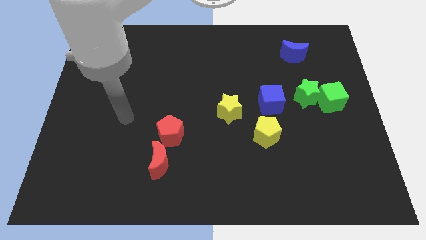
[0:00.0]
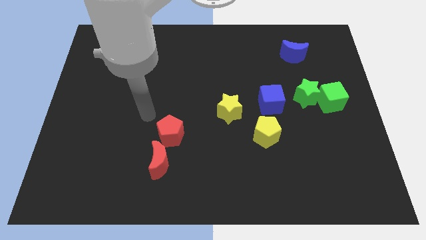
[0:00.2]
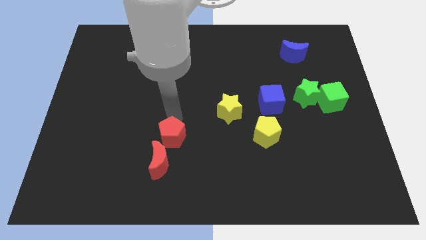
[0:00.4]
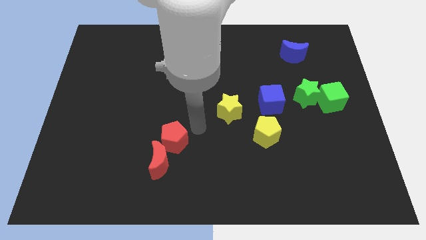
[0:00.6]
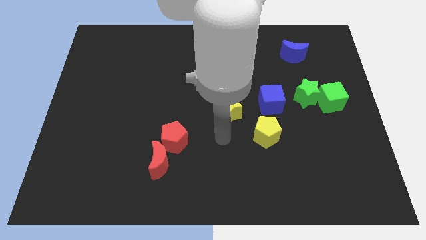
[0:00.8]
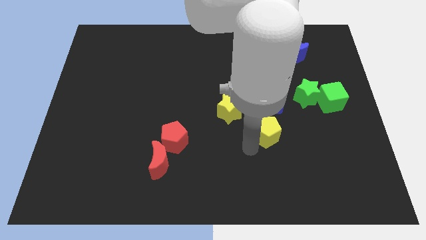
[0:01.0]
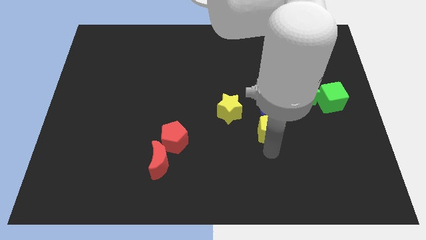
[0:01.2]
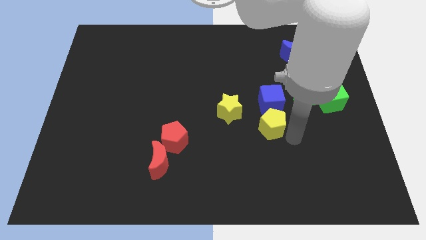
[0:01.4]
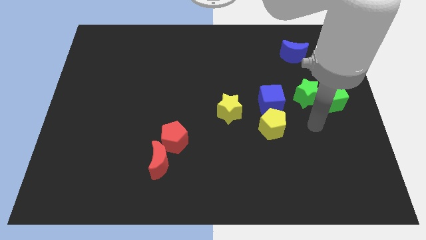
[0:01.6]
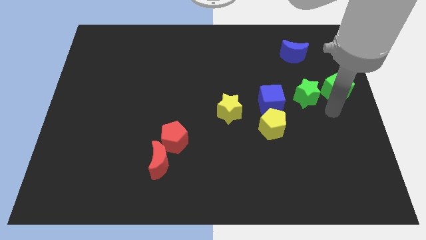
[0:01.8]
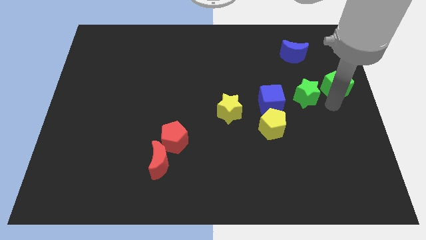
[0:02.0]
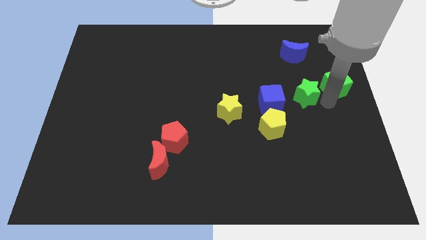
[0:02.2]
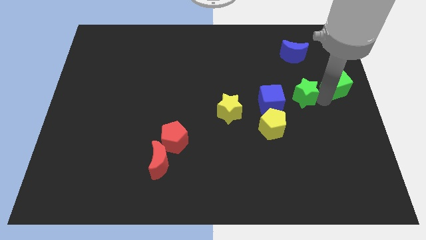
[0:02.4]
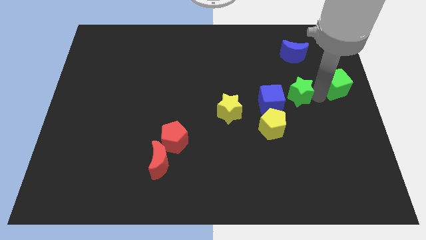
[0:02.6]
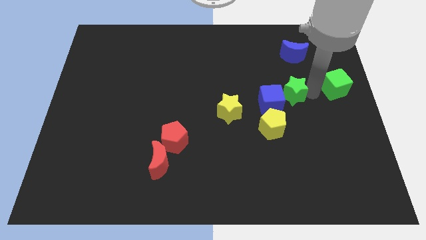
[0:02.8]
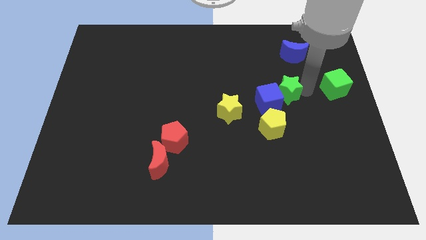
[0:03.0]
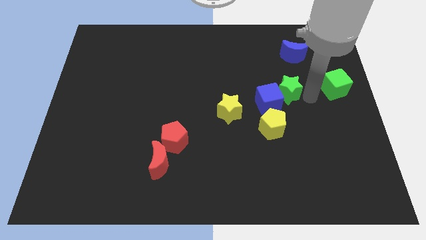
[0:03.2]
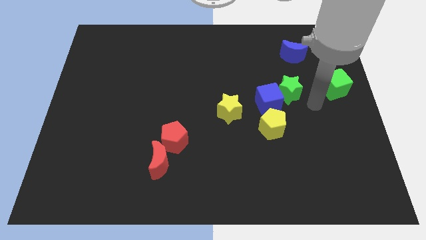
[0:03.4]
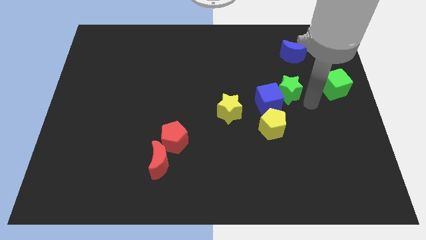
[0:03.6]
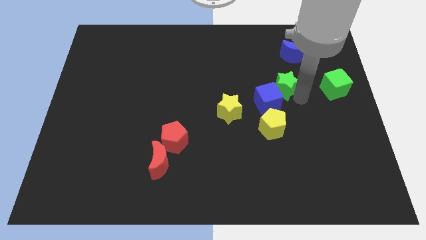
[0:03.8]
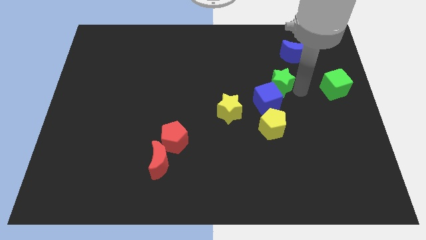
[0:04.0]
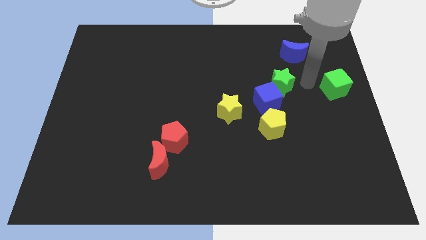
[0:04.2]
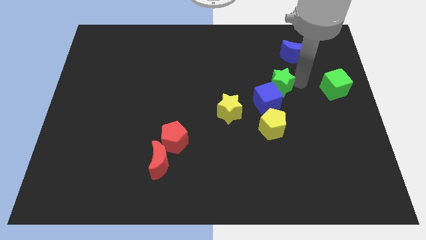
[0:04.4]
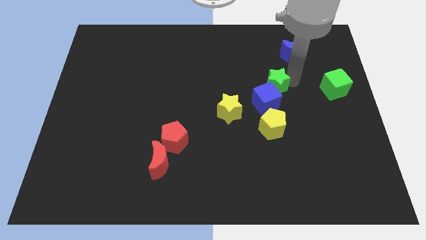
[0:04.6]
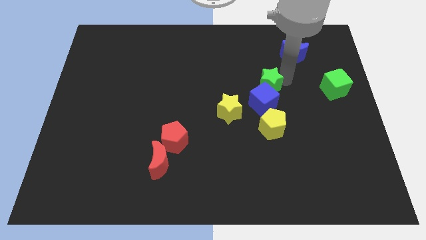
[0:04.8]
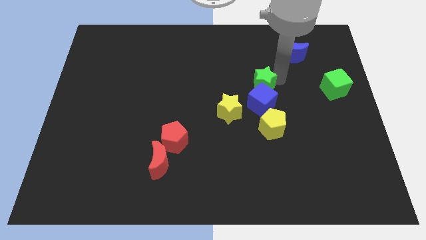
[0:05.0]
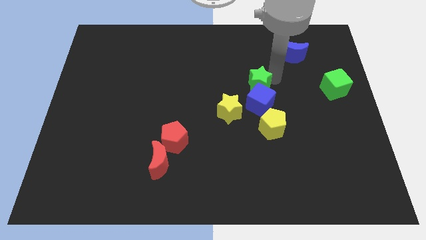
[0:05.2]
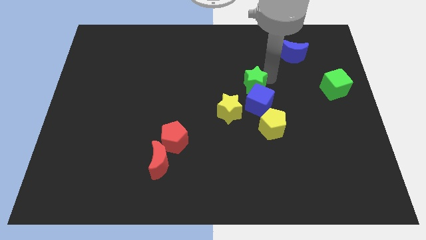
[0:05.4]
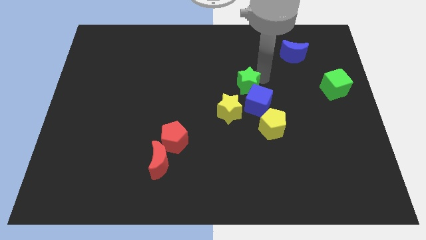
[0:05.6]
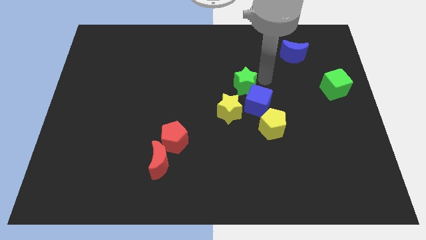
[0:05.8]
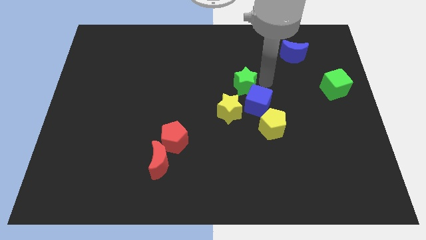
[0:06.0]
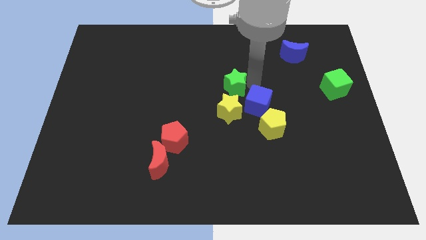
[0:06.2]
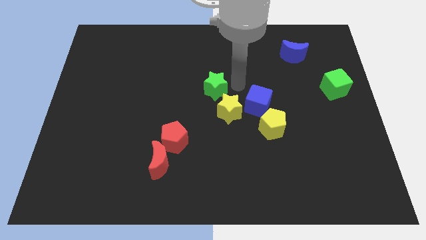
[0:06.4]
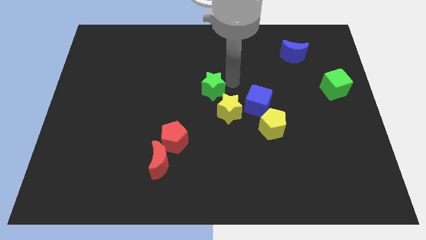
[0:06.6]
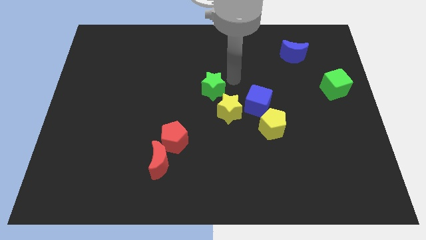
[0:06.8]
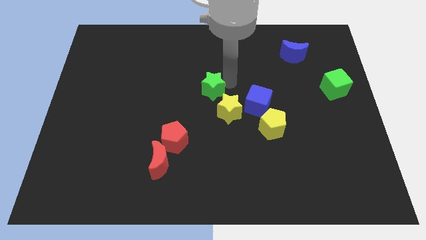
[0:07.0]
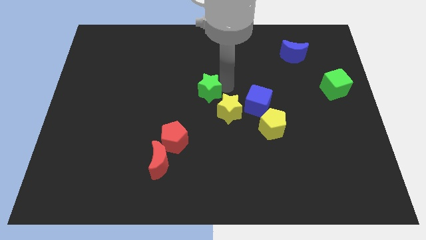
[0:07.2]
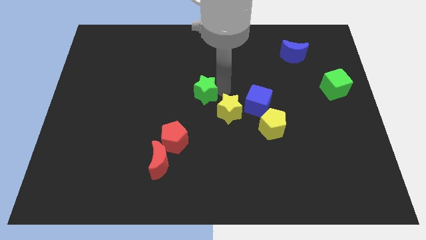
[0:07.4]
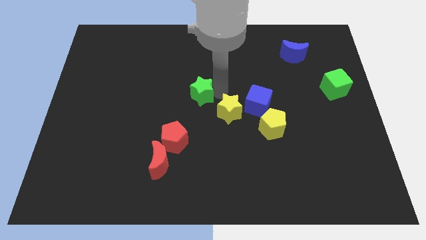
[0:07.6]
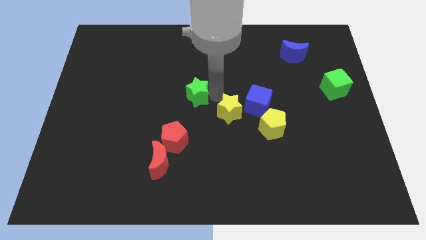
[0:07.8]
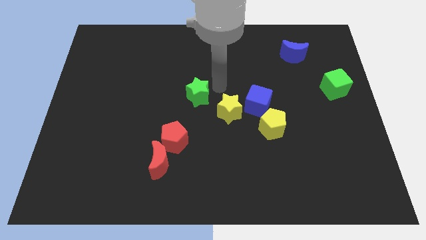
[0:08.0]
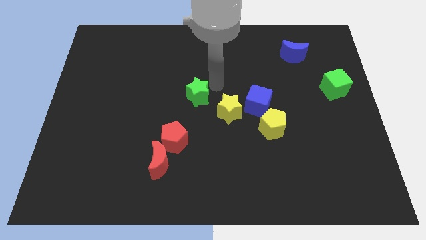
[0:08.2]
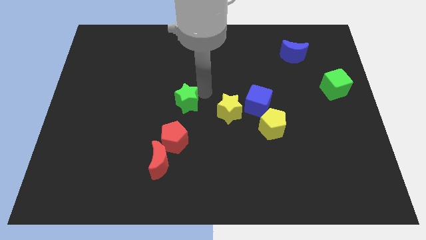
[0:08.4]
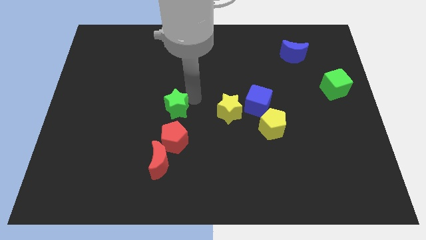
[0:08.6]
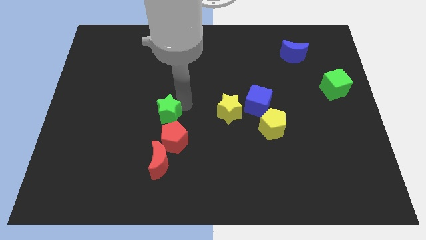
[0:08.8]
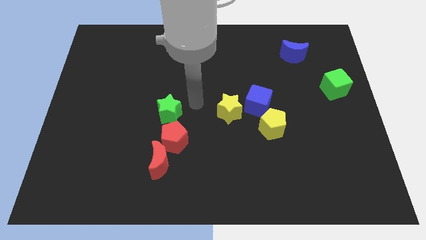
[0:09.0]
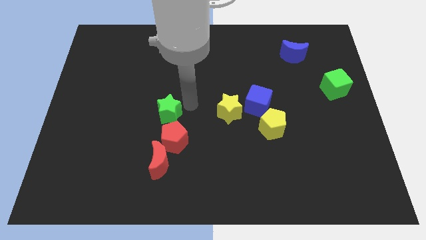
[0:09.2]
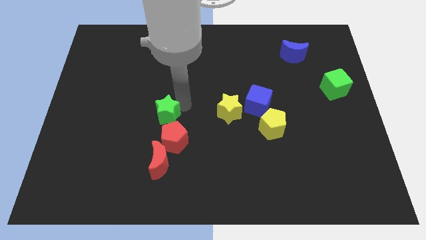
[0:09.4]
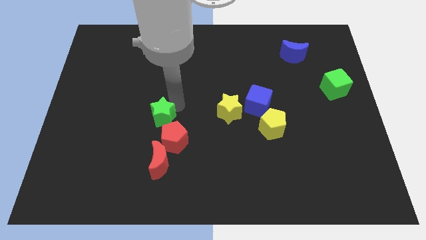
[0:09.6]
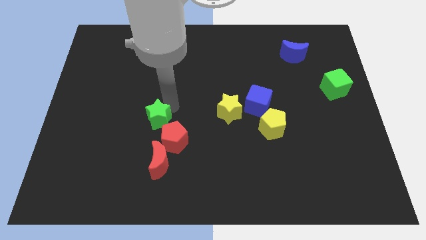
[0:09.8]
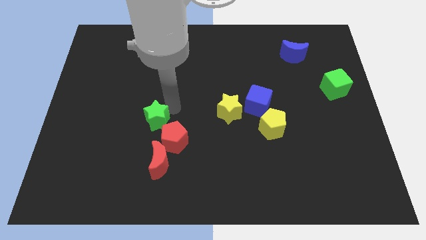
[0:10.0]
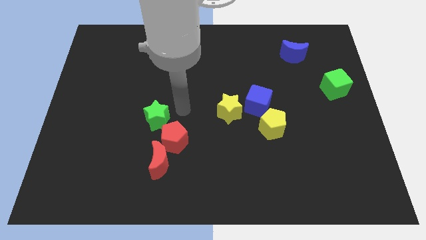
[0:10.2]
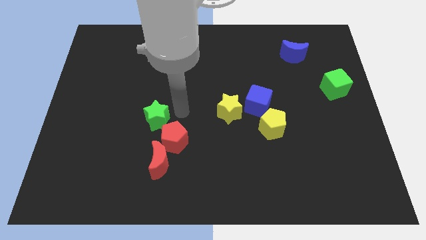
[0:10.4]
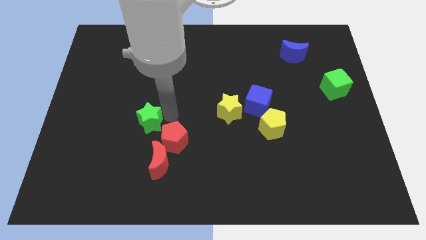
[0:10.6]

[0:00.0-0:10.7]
put the green star to the left of the red pentagon

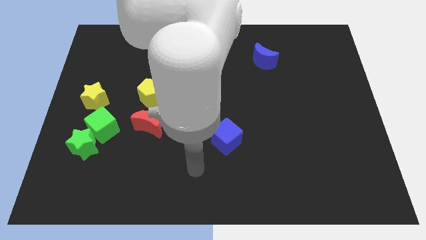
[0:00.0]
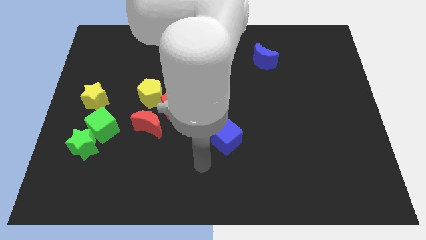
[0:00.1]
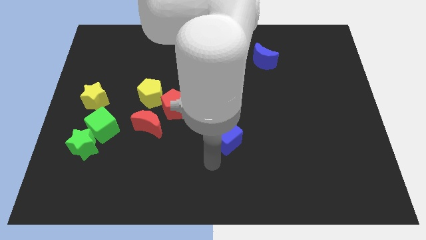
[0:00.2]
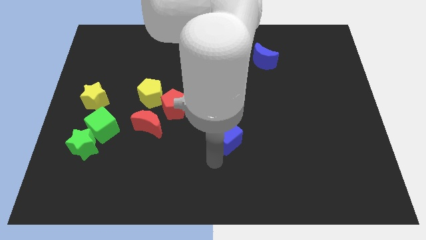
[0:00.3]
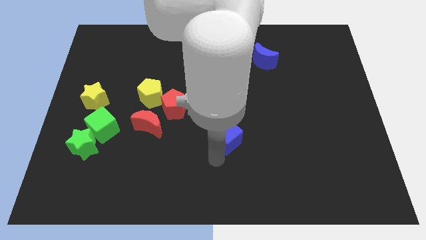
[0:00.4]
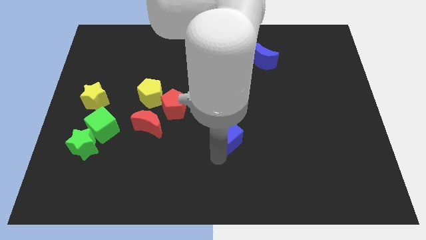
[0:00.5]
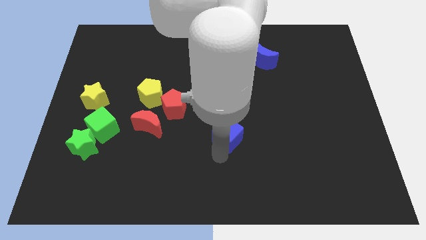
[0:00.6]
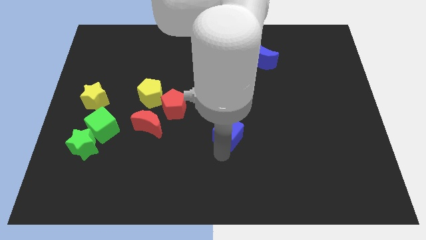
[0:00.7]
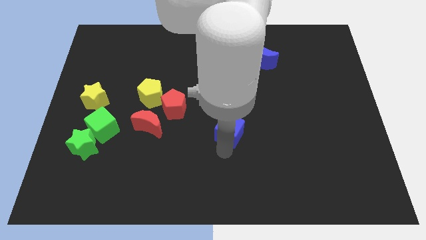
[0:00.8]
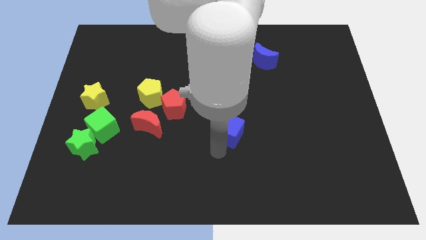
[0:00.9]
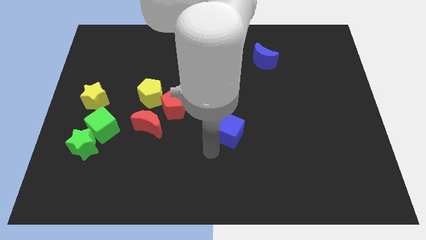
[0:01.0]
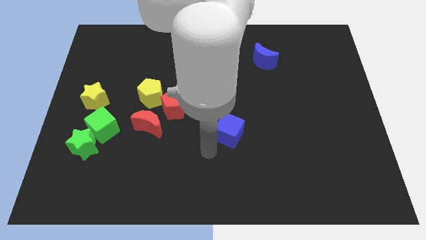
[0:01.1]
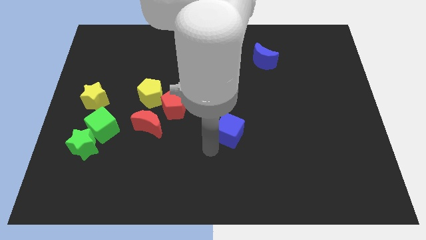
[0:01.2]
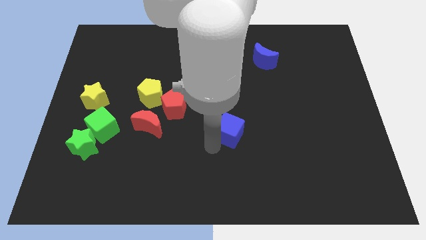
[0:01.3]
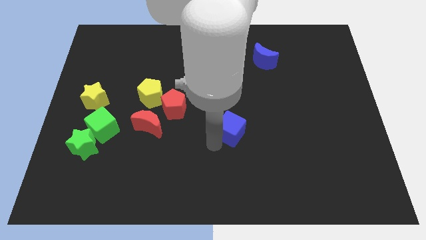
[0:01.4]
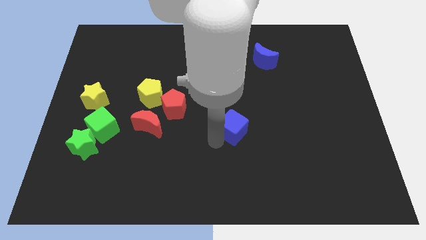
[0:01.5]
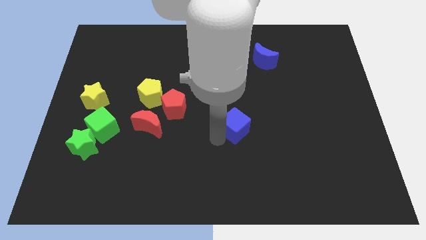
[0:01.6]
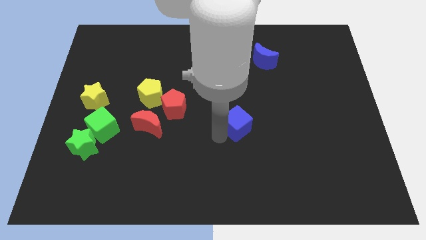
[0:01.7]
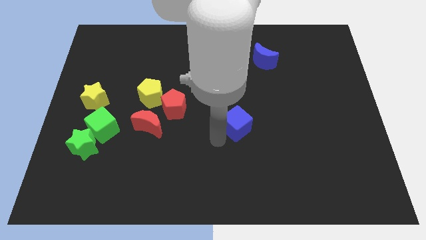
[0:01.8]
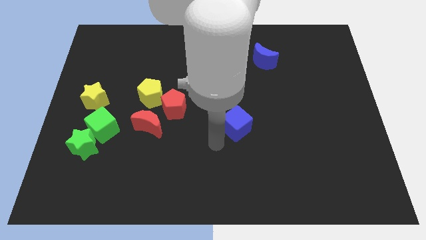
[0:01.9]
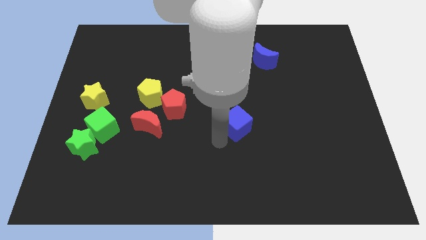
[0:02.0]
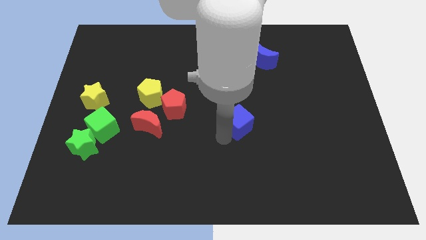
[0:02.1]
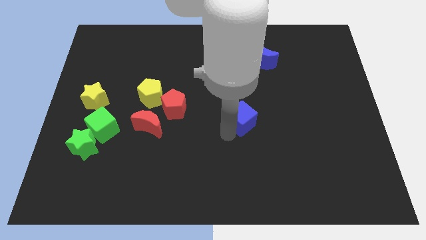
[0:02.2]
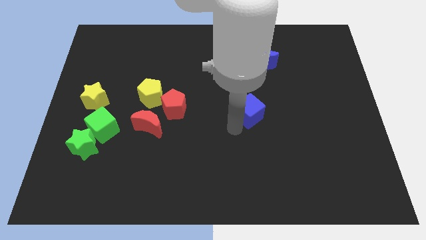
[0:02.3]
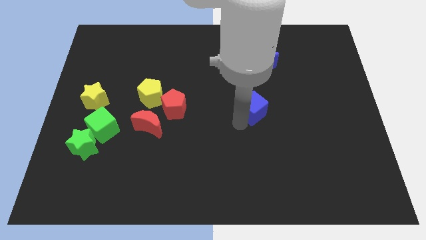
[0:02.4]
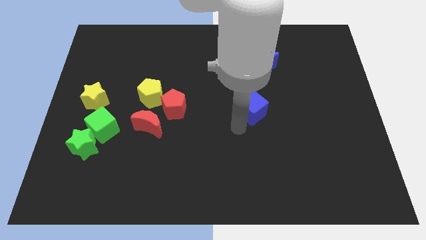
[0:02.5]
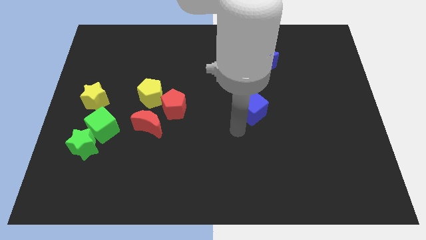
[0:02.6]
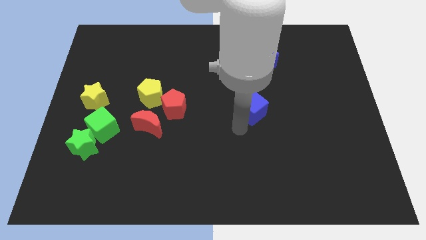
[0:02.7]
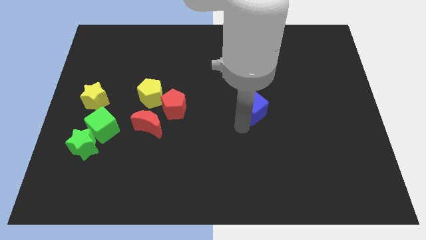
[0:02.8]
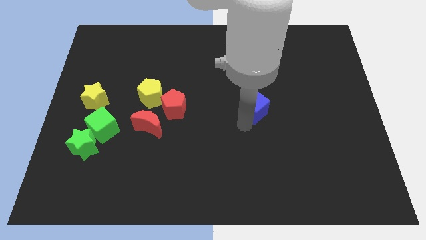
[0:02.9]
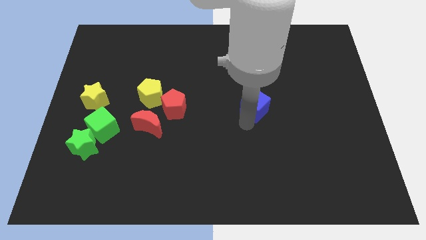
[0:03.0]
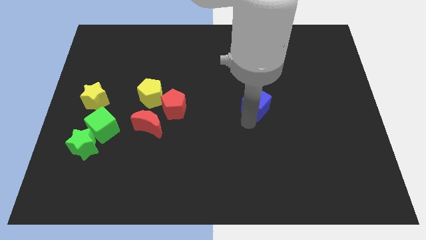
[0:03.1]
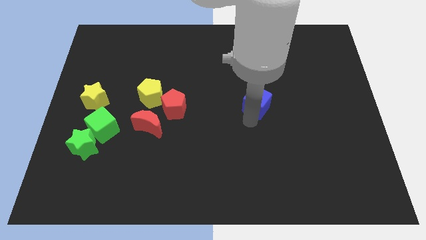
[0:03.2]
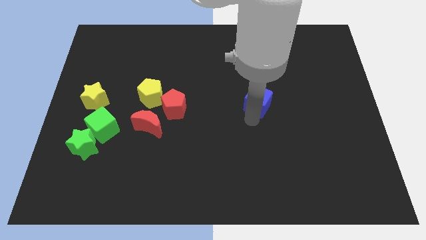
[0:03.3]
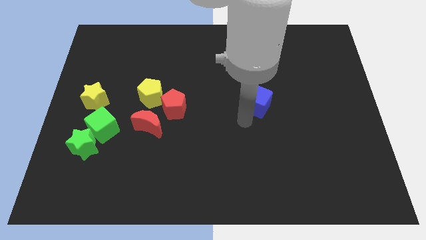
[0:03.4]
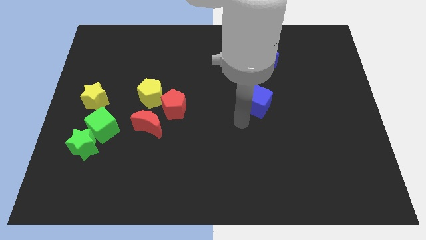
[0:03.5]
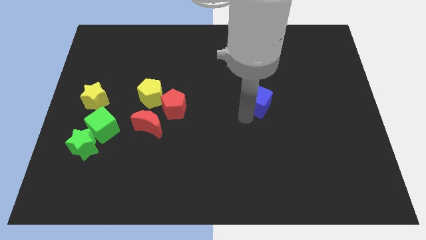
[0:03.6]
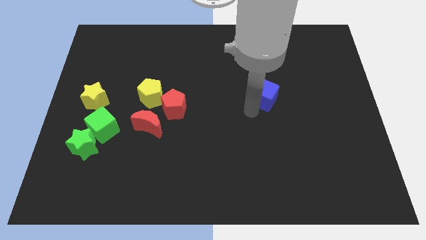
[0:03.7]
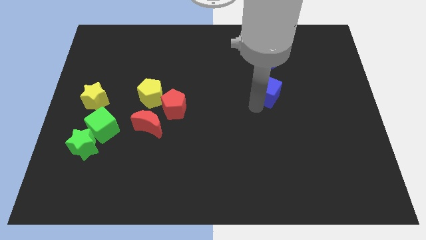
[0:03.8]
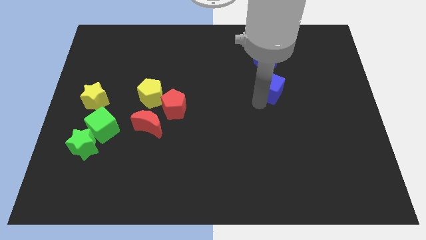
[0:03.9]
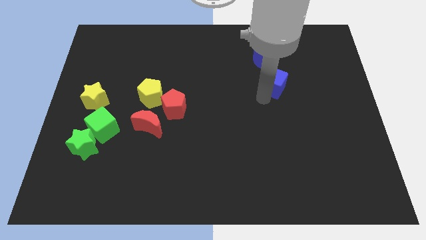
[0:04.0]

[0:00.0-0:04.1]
push the blue cube to the bottom right of the blue moon
